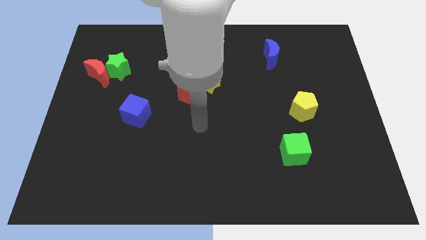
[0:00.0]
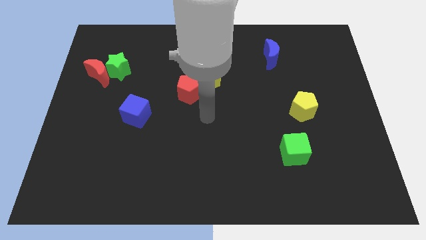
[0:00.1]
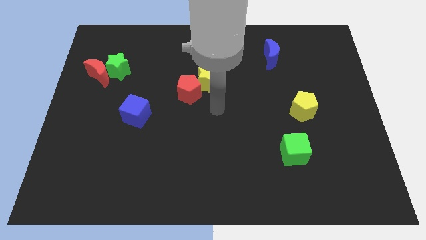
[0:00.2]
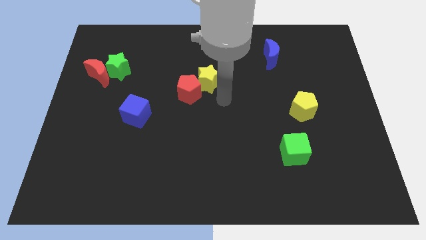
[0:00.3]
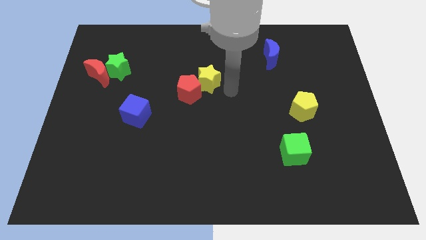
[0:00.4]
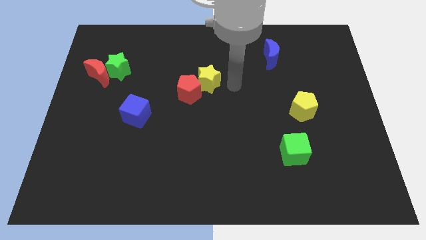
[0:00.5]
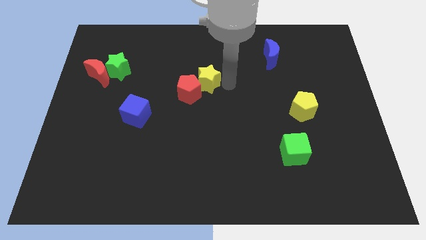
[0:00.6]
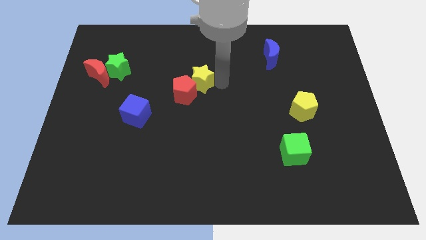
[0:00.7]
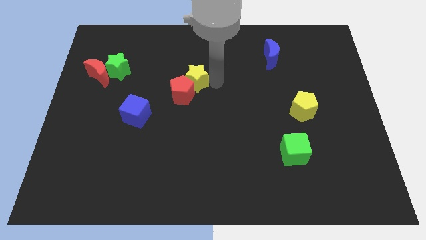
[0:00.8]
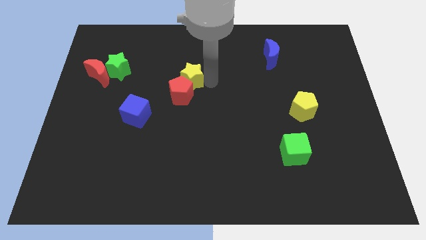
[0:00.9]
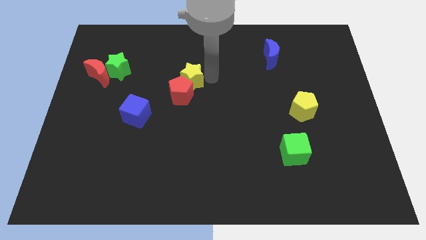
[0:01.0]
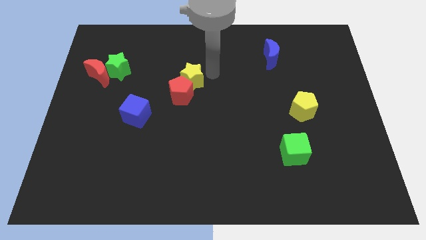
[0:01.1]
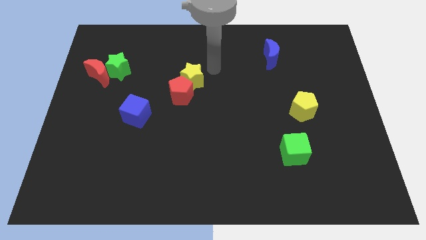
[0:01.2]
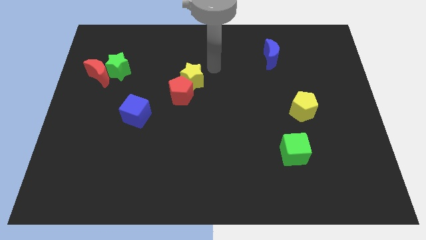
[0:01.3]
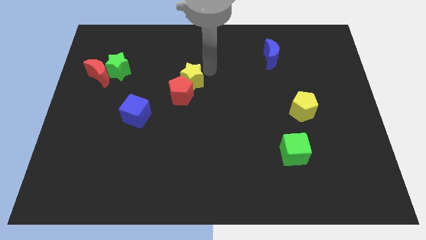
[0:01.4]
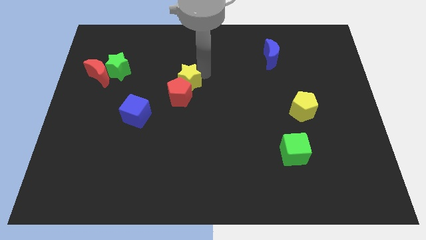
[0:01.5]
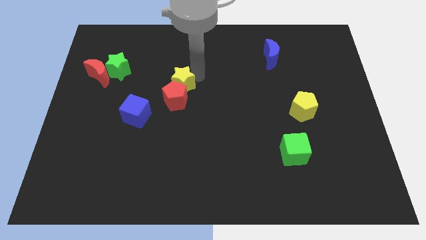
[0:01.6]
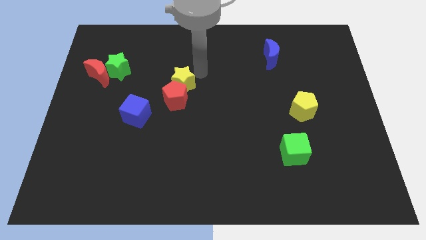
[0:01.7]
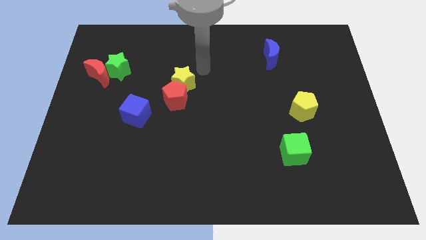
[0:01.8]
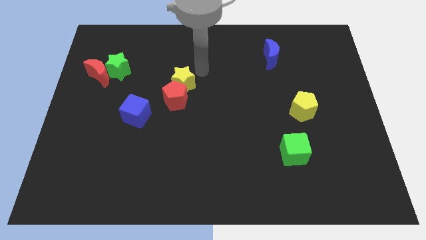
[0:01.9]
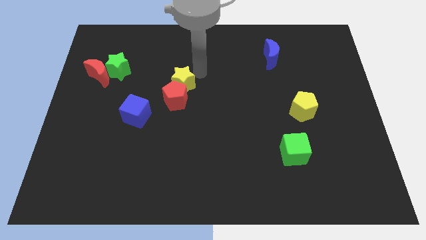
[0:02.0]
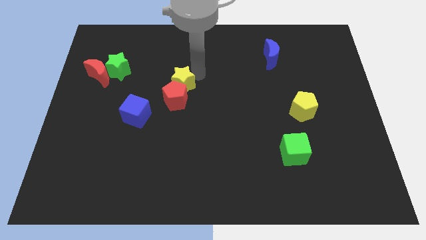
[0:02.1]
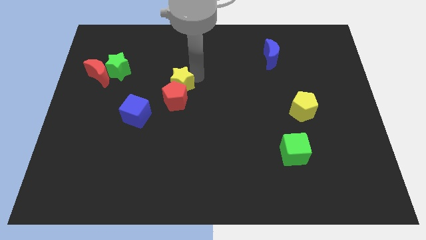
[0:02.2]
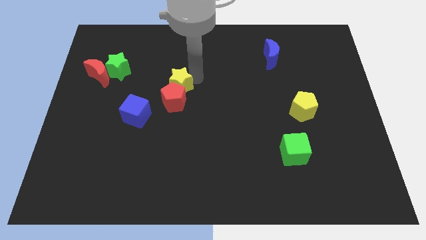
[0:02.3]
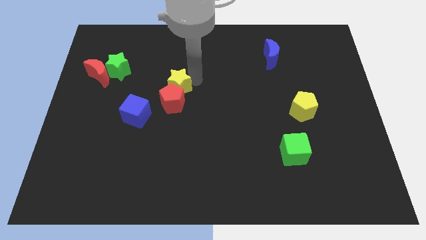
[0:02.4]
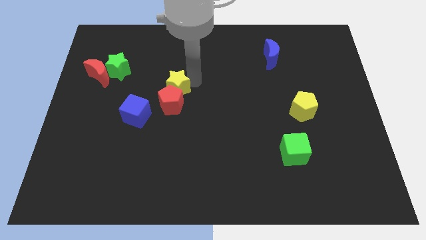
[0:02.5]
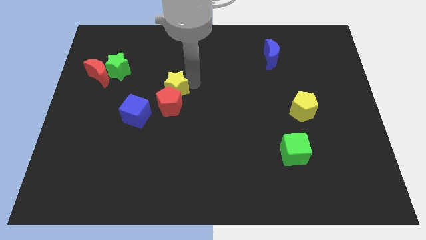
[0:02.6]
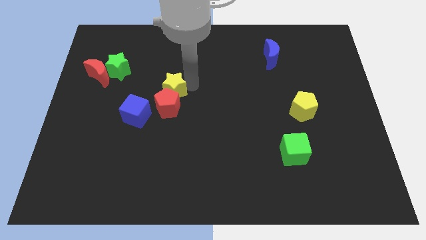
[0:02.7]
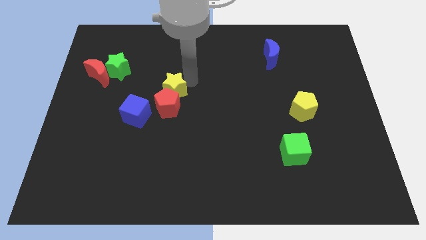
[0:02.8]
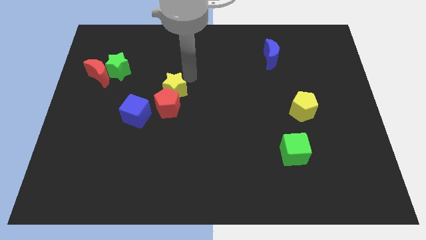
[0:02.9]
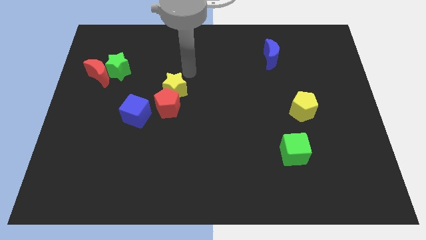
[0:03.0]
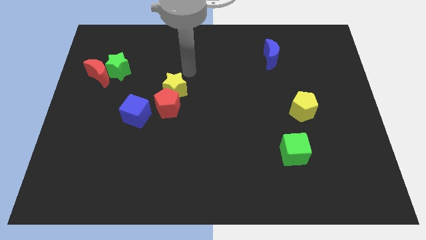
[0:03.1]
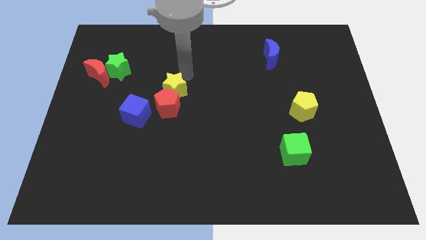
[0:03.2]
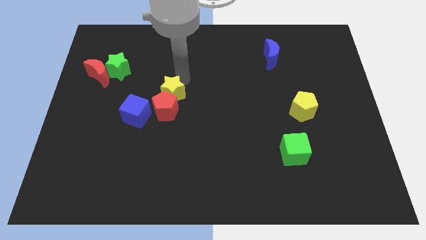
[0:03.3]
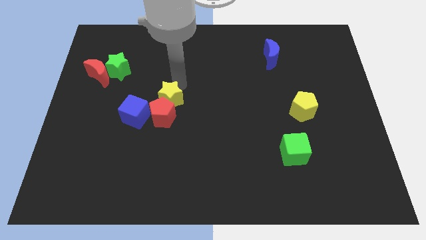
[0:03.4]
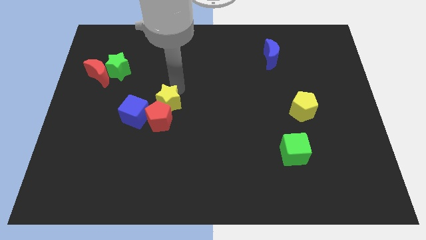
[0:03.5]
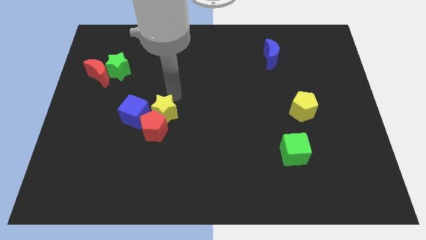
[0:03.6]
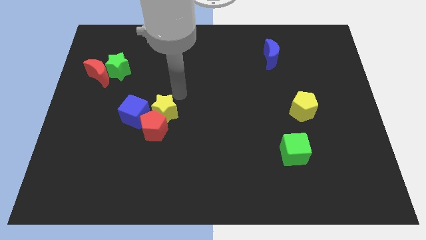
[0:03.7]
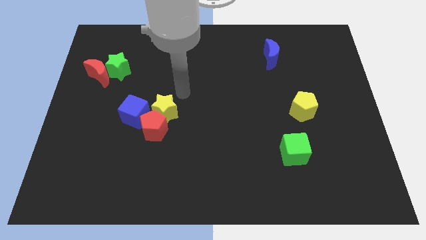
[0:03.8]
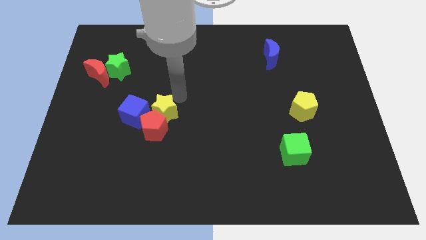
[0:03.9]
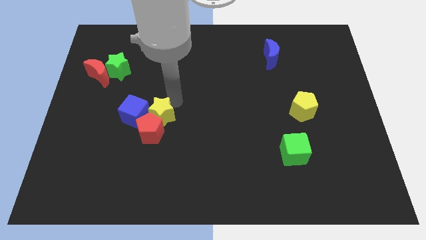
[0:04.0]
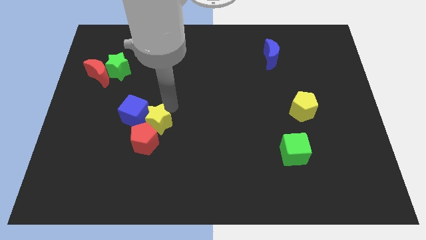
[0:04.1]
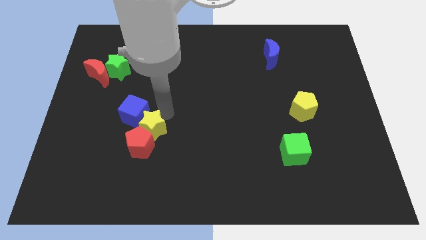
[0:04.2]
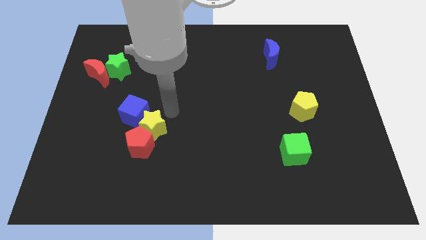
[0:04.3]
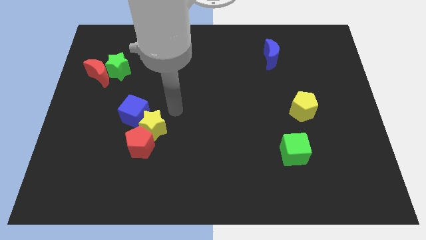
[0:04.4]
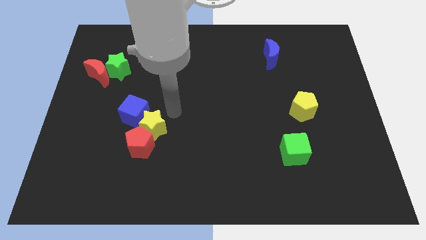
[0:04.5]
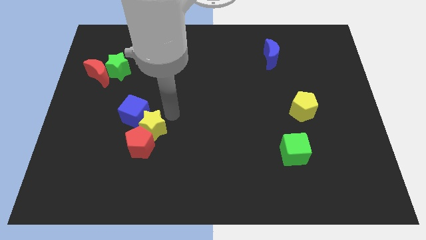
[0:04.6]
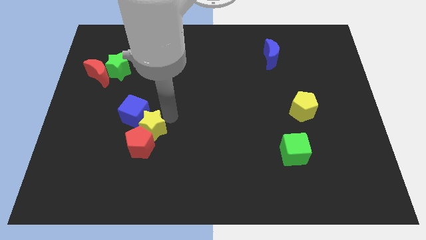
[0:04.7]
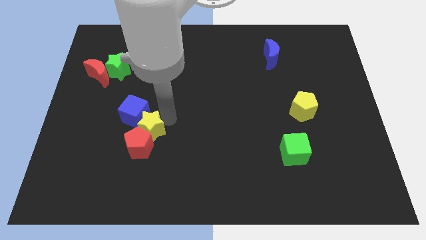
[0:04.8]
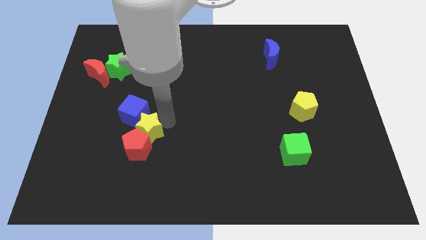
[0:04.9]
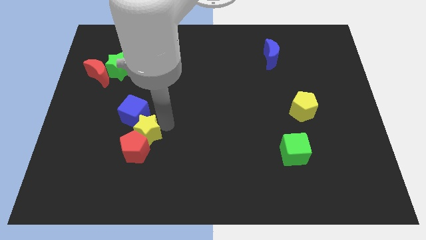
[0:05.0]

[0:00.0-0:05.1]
push the yellow star diagonally downwards and to the left

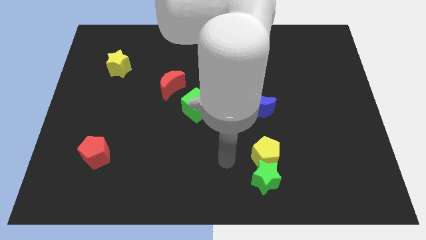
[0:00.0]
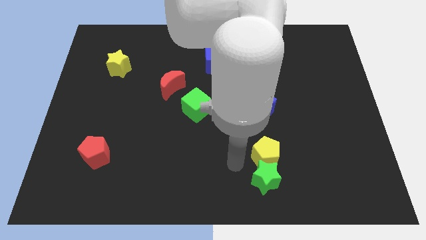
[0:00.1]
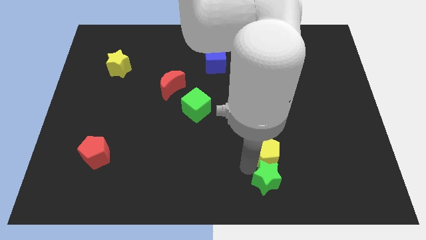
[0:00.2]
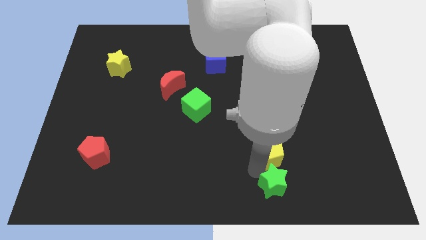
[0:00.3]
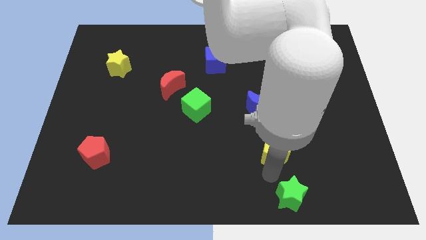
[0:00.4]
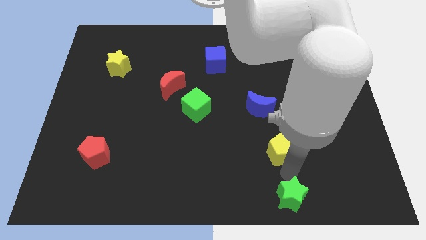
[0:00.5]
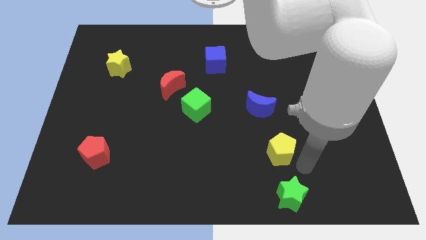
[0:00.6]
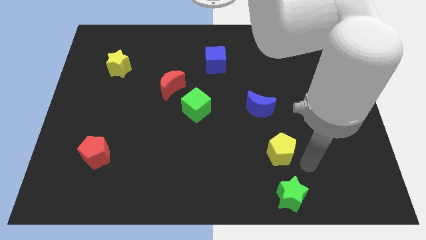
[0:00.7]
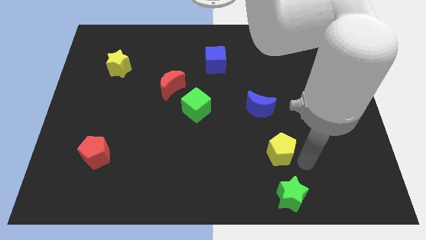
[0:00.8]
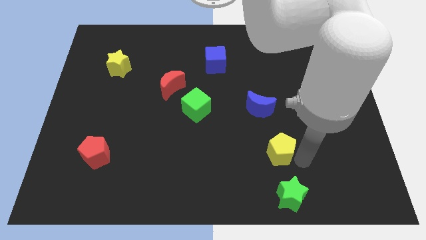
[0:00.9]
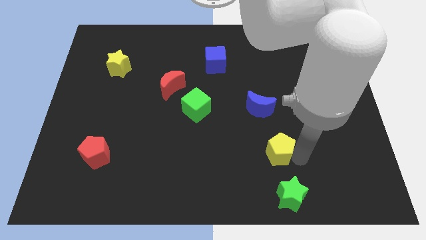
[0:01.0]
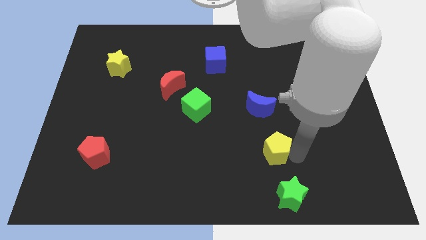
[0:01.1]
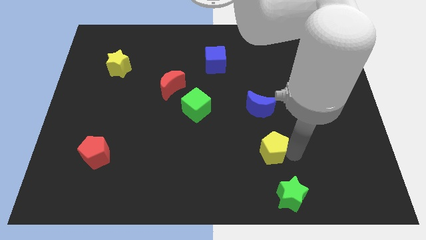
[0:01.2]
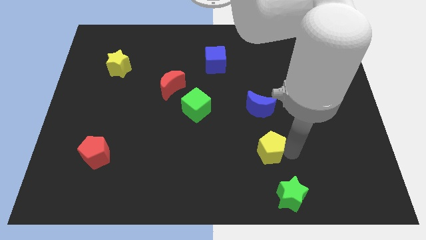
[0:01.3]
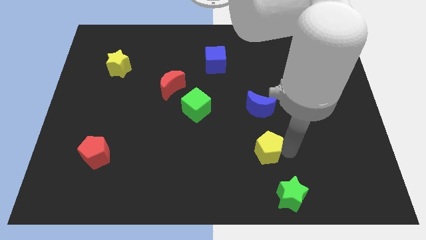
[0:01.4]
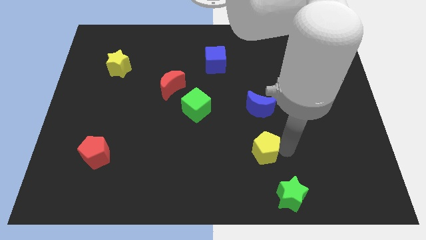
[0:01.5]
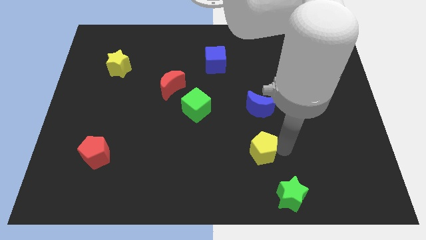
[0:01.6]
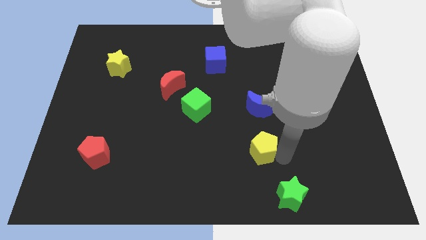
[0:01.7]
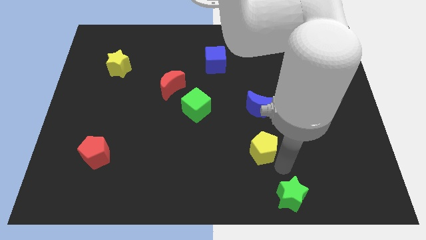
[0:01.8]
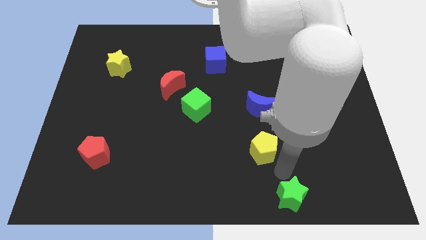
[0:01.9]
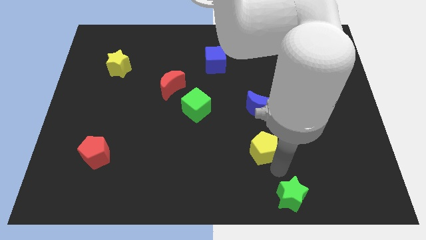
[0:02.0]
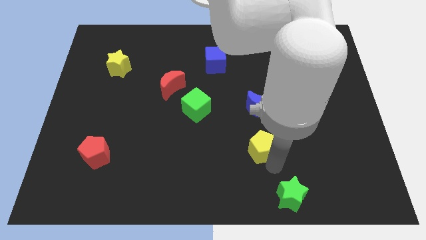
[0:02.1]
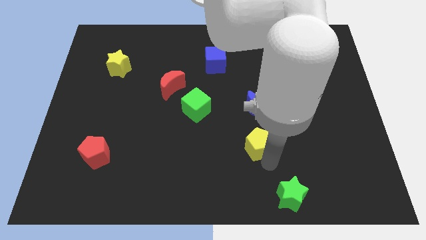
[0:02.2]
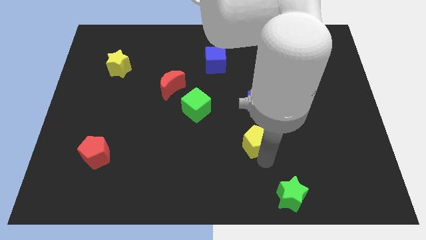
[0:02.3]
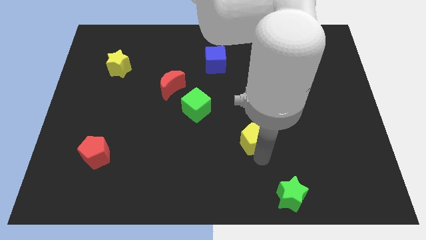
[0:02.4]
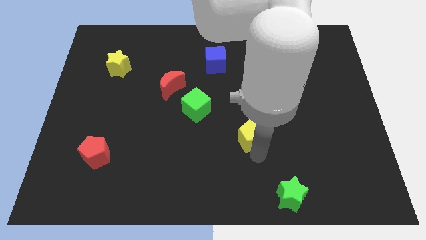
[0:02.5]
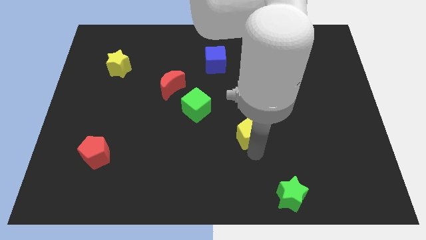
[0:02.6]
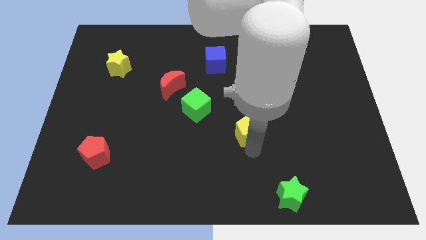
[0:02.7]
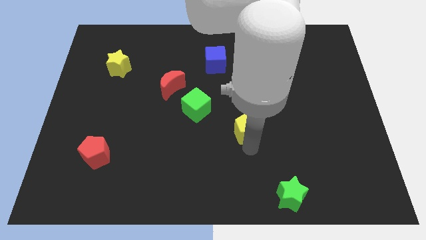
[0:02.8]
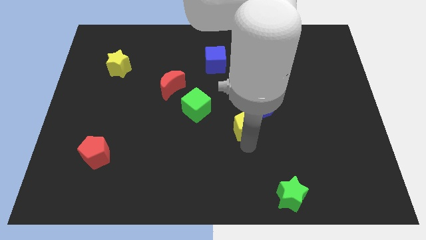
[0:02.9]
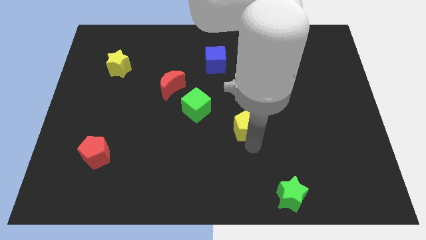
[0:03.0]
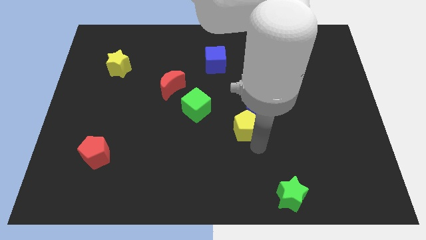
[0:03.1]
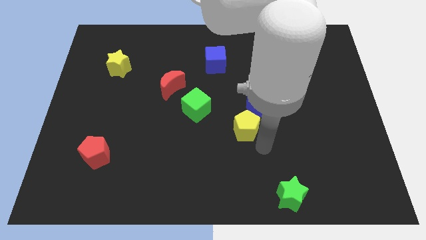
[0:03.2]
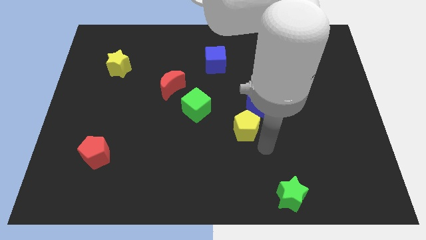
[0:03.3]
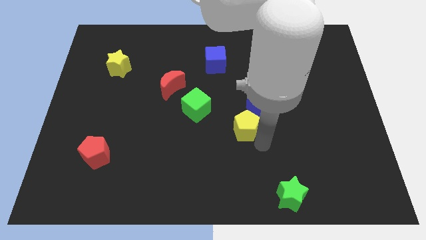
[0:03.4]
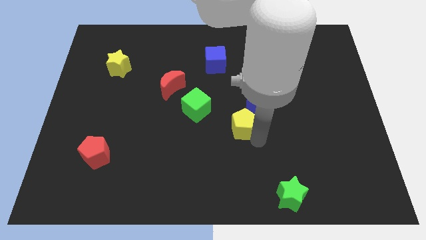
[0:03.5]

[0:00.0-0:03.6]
slide the yellow pentagon up a little bit
